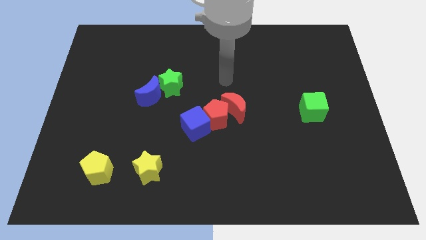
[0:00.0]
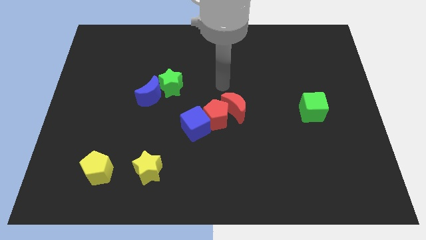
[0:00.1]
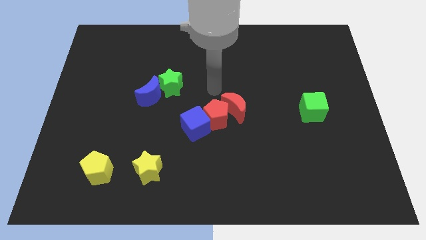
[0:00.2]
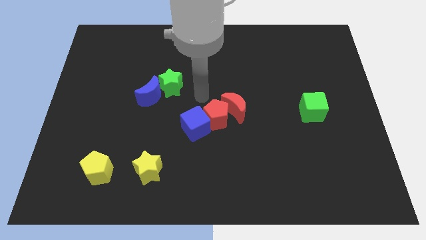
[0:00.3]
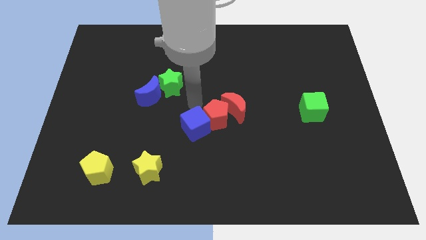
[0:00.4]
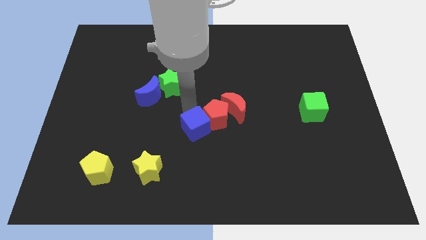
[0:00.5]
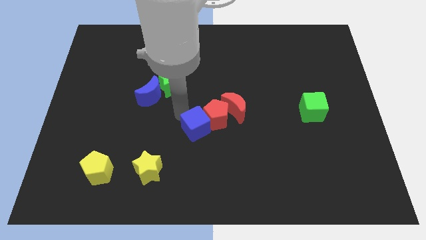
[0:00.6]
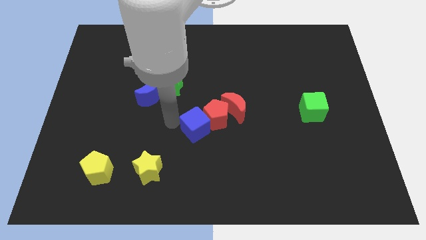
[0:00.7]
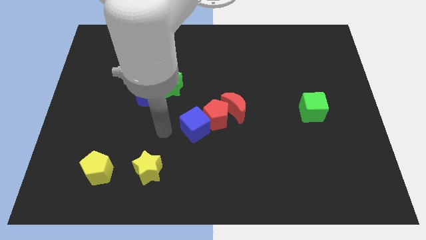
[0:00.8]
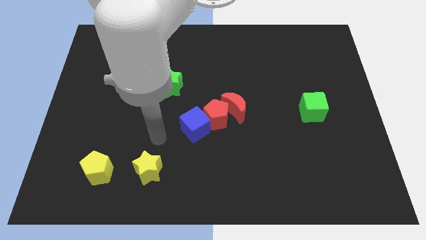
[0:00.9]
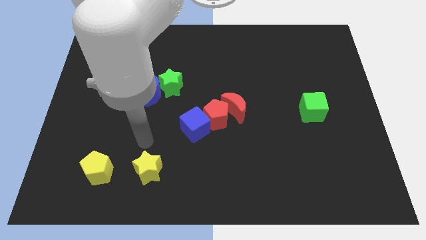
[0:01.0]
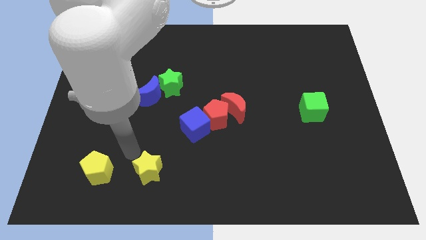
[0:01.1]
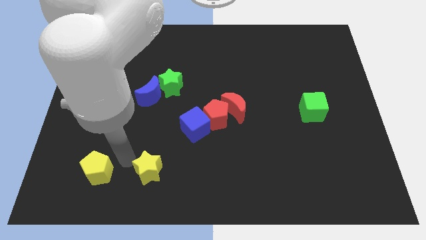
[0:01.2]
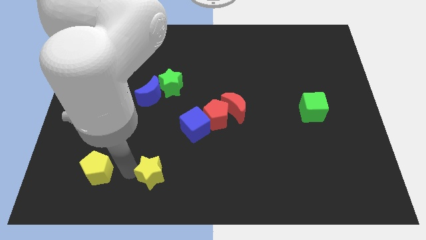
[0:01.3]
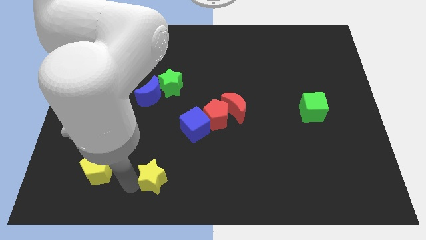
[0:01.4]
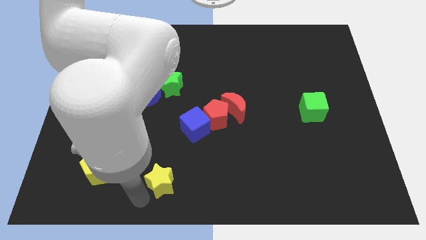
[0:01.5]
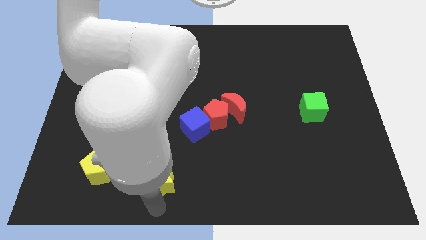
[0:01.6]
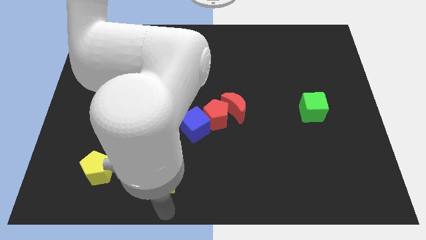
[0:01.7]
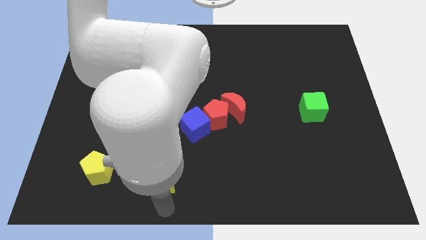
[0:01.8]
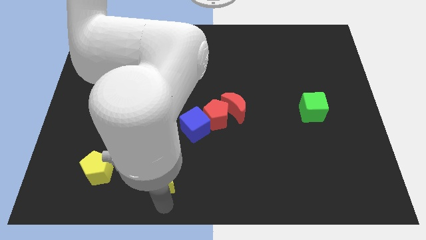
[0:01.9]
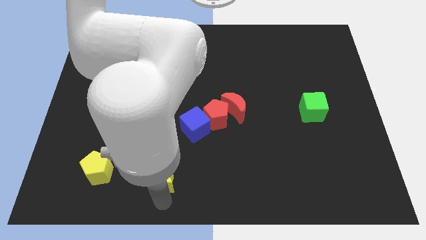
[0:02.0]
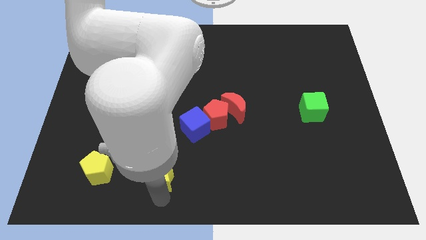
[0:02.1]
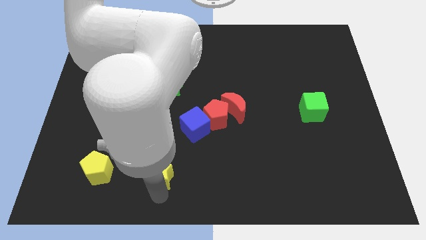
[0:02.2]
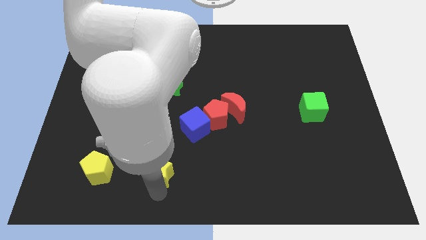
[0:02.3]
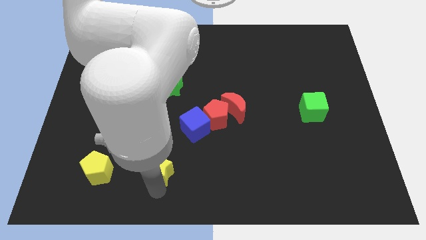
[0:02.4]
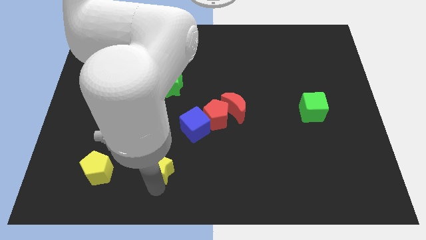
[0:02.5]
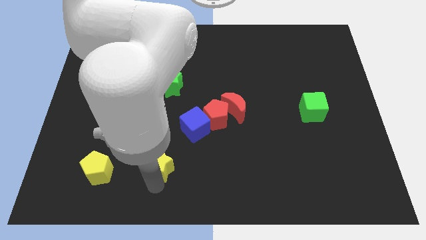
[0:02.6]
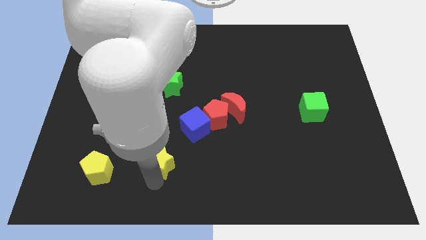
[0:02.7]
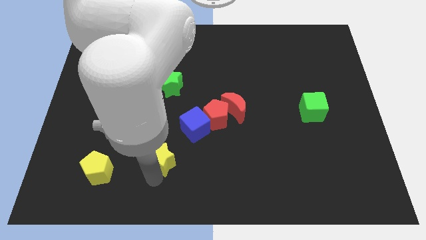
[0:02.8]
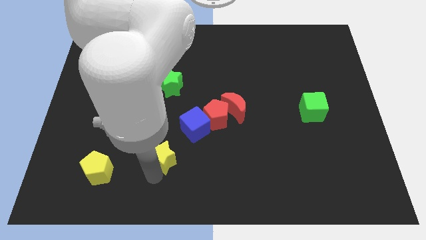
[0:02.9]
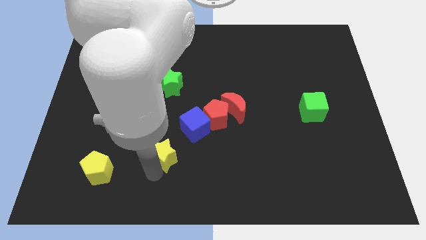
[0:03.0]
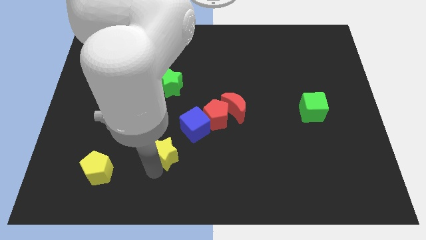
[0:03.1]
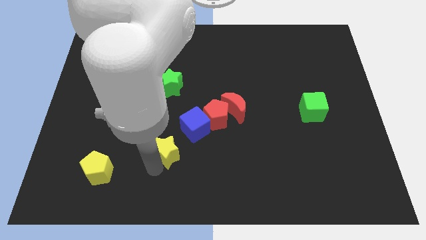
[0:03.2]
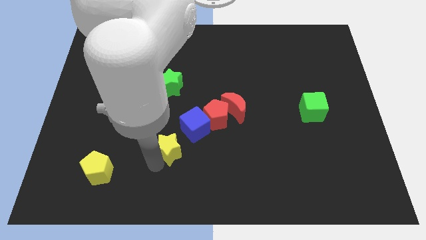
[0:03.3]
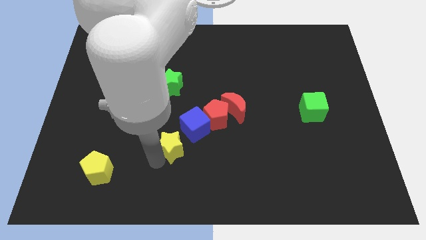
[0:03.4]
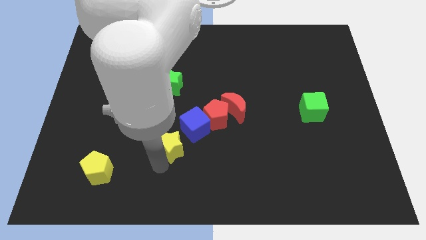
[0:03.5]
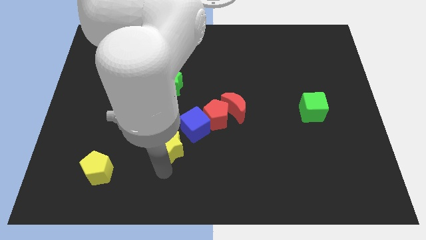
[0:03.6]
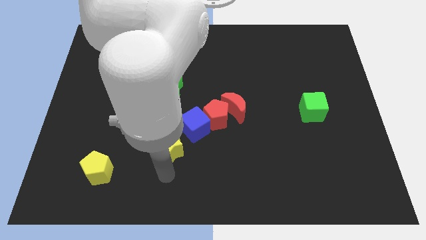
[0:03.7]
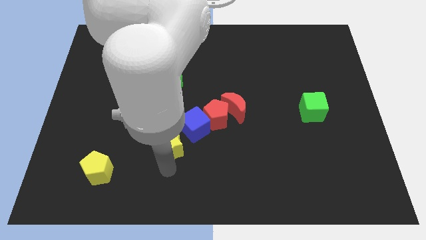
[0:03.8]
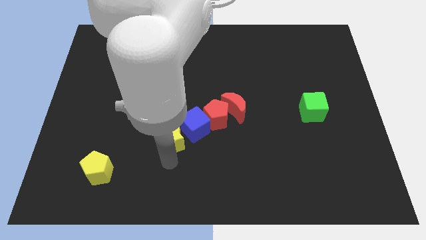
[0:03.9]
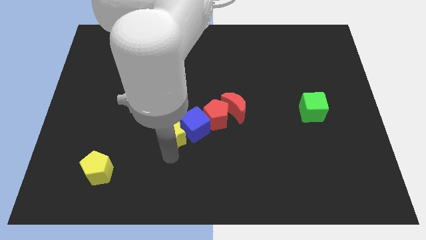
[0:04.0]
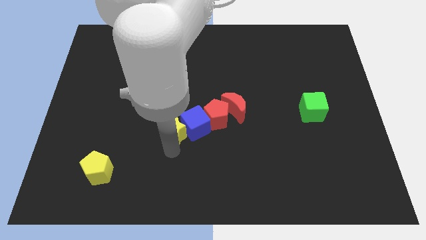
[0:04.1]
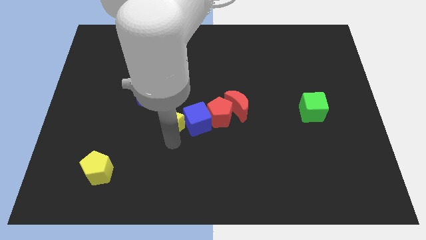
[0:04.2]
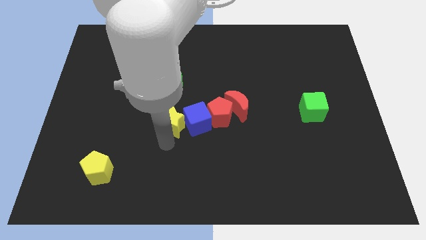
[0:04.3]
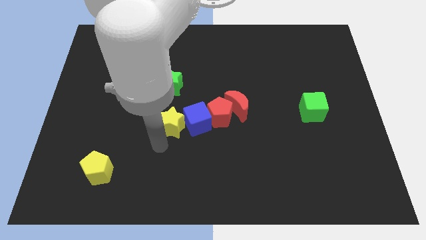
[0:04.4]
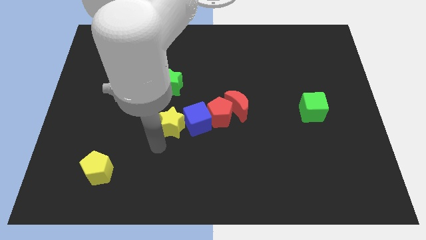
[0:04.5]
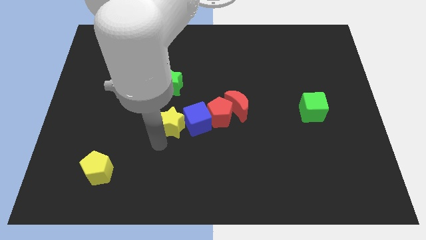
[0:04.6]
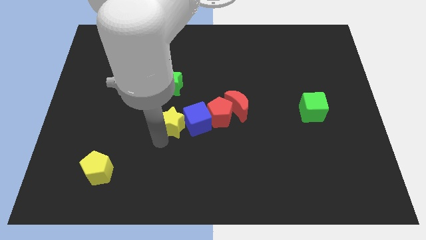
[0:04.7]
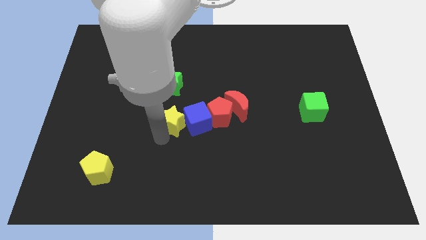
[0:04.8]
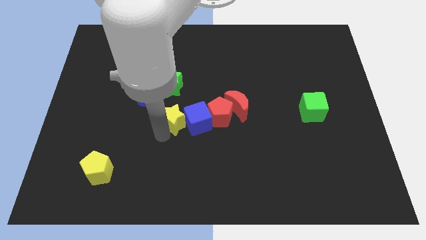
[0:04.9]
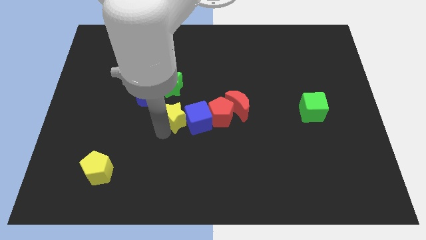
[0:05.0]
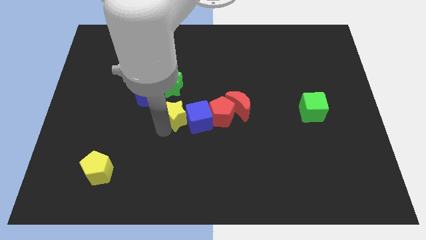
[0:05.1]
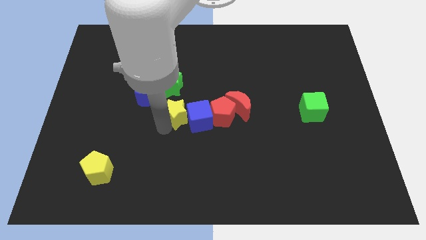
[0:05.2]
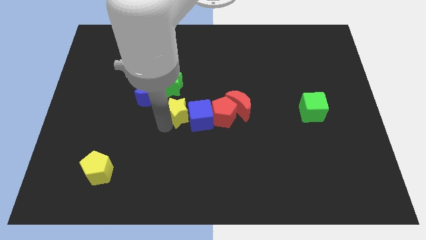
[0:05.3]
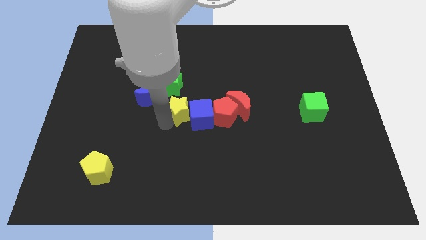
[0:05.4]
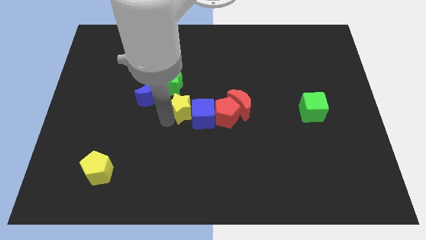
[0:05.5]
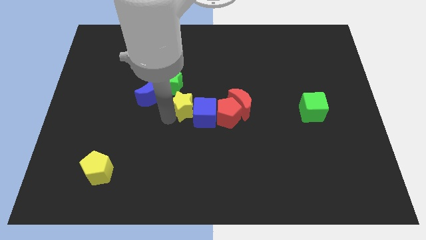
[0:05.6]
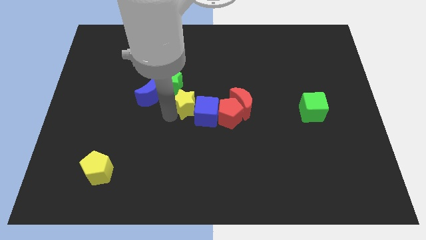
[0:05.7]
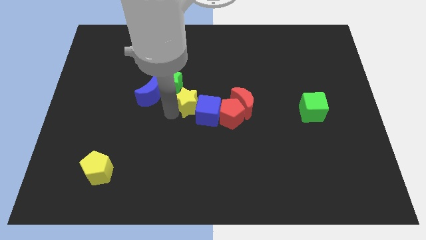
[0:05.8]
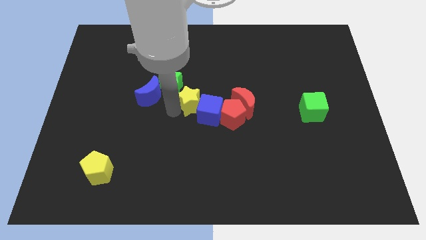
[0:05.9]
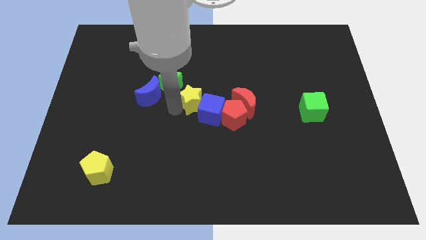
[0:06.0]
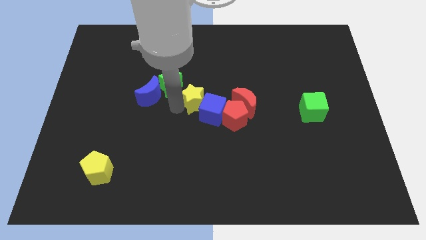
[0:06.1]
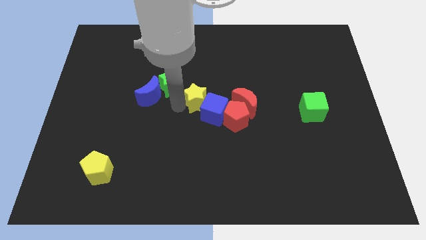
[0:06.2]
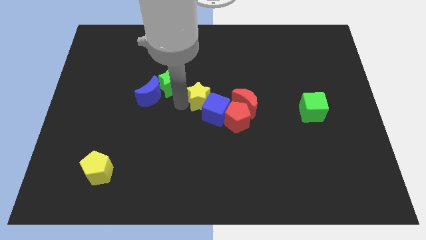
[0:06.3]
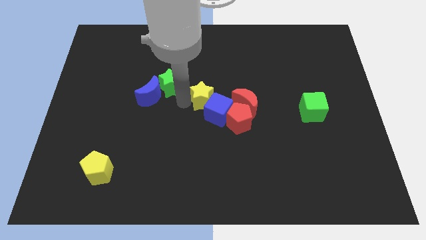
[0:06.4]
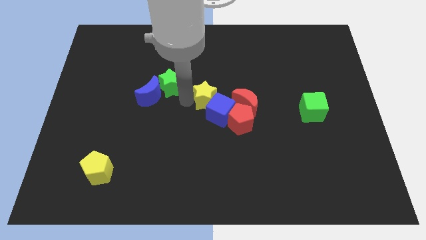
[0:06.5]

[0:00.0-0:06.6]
slide the yellow star diagonally upwards and to the right

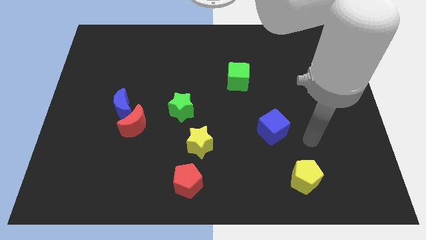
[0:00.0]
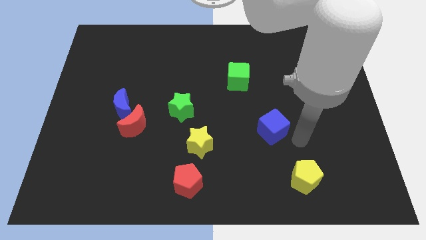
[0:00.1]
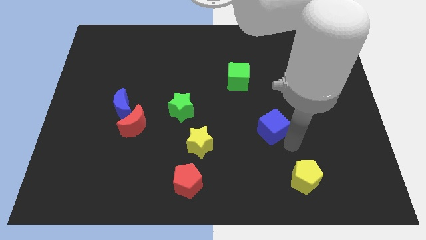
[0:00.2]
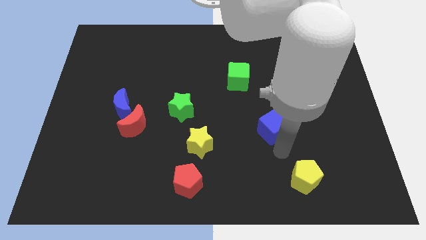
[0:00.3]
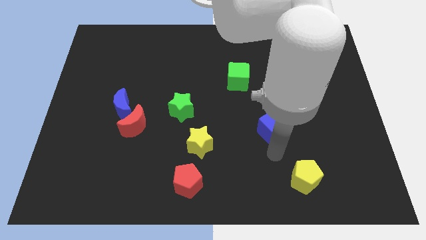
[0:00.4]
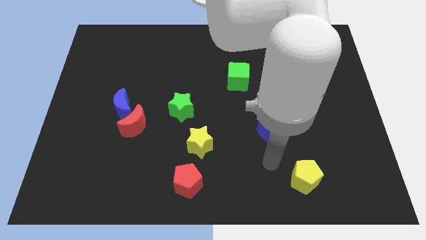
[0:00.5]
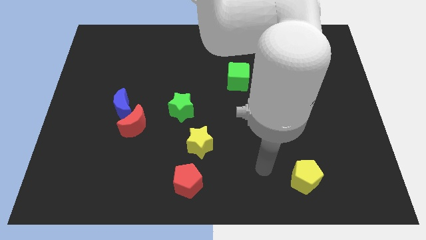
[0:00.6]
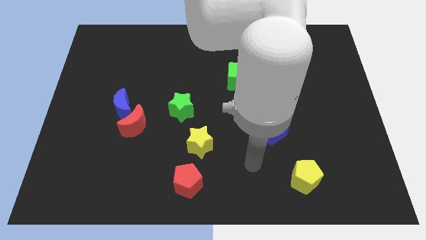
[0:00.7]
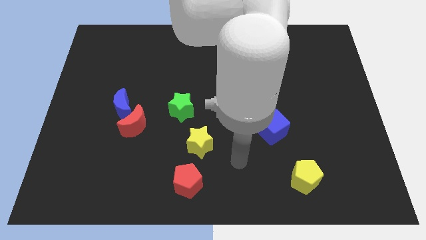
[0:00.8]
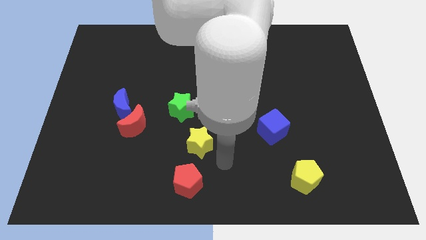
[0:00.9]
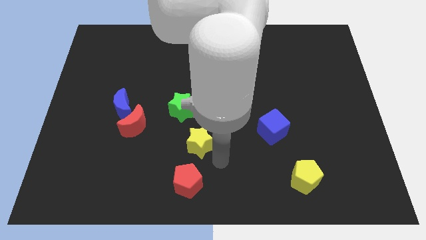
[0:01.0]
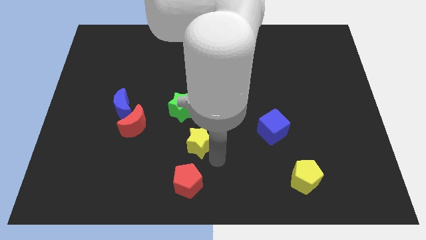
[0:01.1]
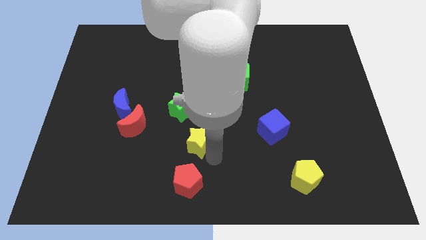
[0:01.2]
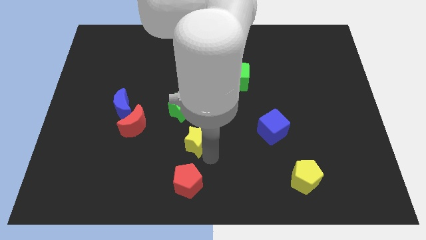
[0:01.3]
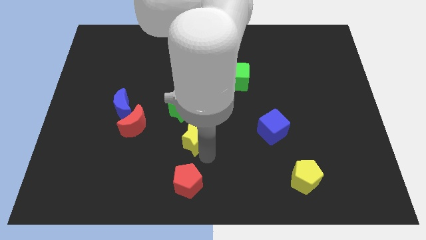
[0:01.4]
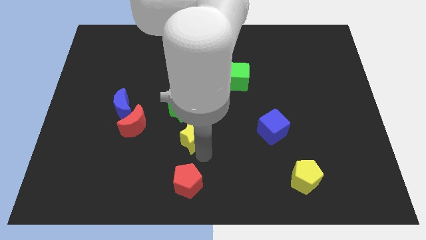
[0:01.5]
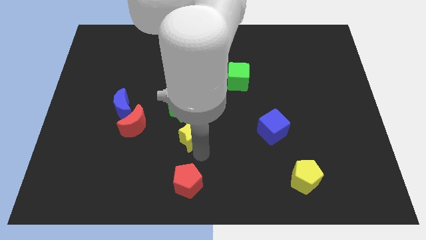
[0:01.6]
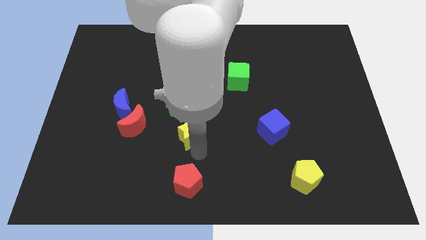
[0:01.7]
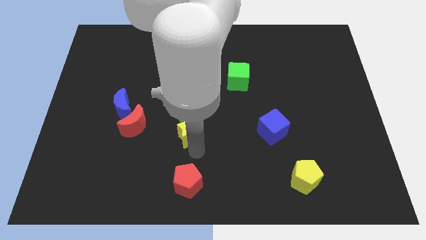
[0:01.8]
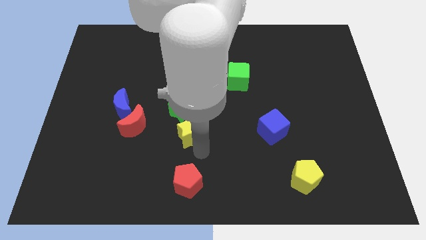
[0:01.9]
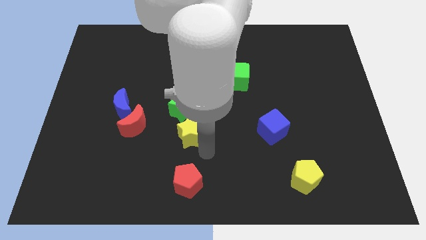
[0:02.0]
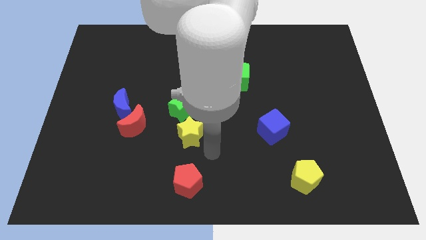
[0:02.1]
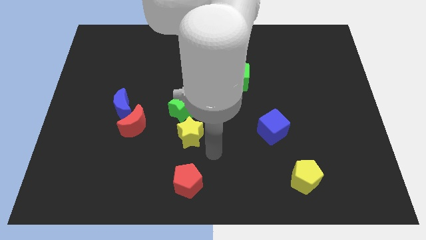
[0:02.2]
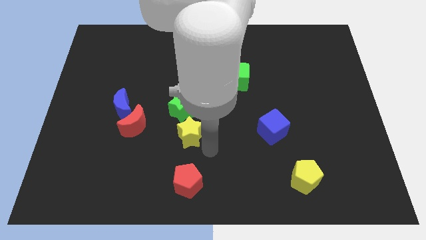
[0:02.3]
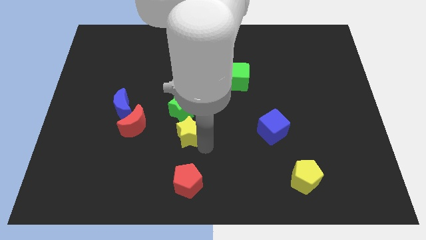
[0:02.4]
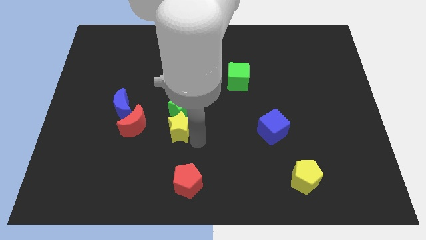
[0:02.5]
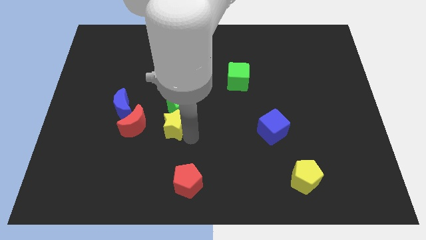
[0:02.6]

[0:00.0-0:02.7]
slightly push the yellow star diagonally up and to the left
